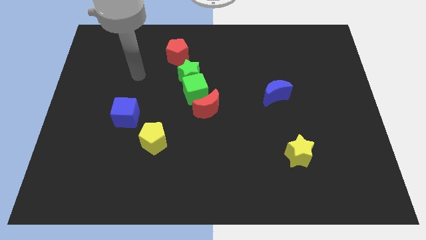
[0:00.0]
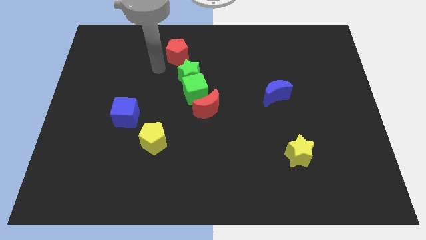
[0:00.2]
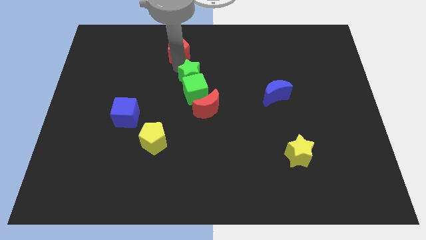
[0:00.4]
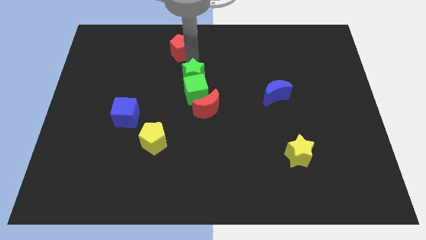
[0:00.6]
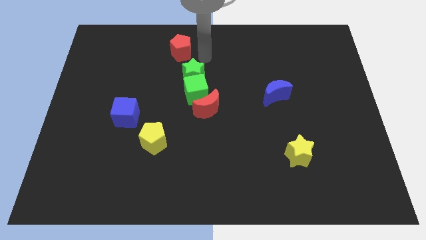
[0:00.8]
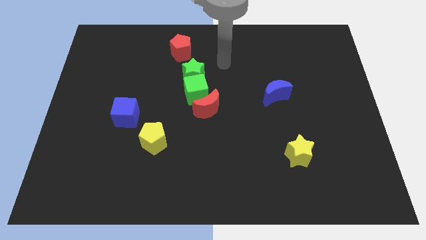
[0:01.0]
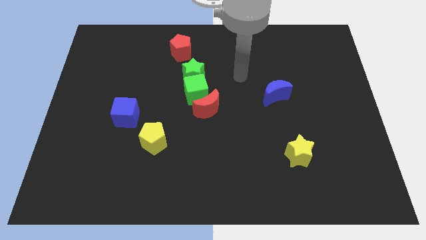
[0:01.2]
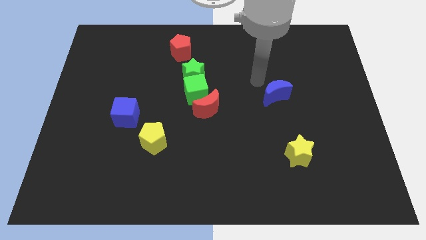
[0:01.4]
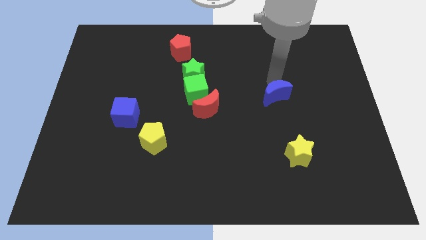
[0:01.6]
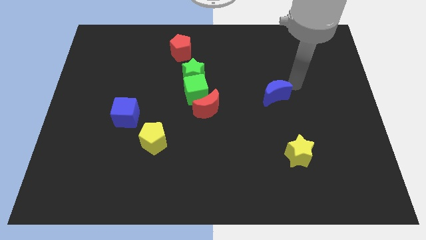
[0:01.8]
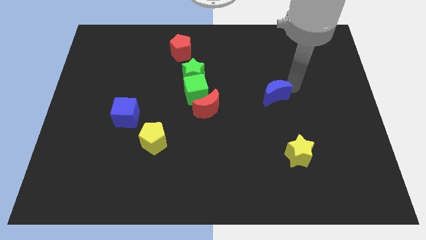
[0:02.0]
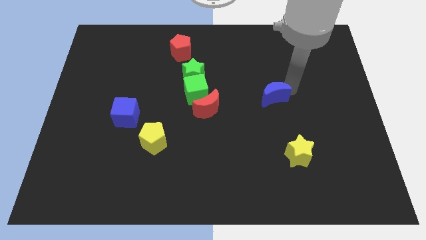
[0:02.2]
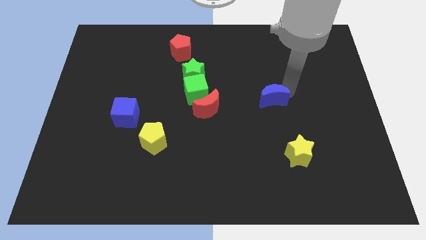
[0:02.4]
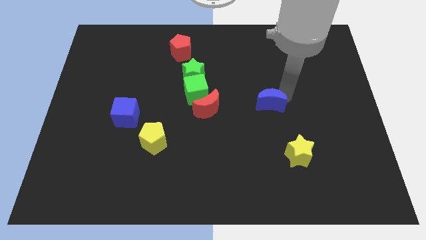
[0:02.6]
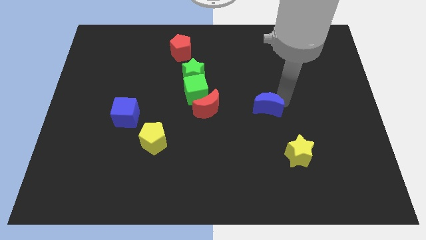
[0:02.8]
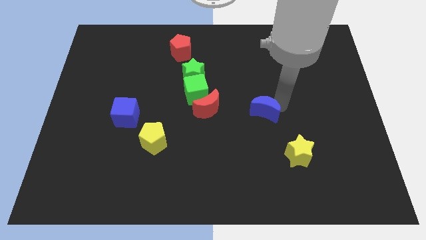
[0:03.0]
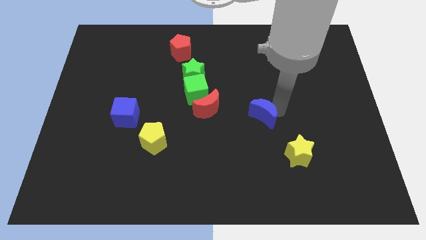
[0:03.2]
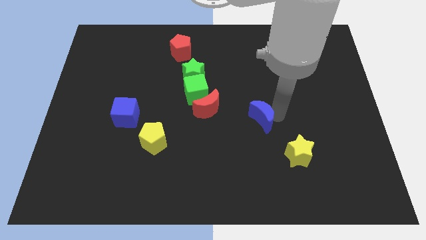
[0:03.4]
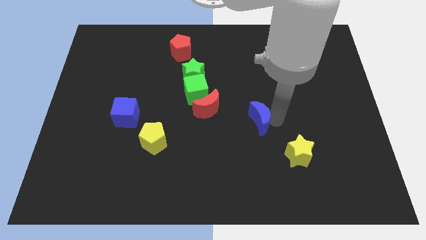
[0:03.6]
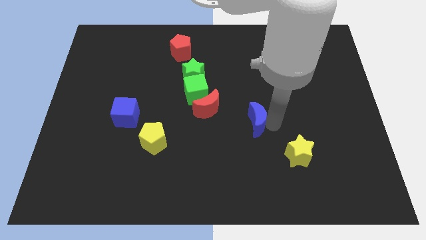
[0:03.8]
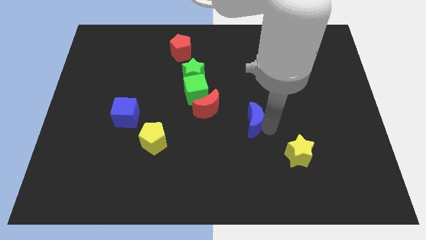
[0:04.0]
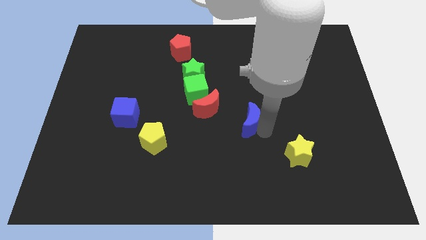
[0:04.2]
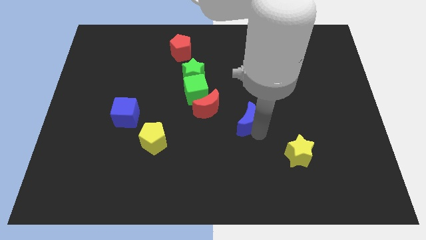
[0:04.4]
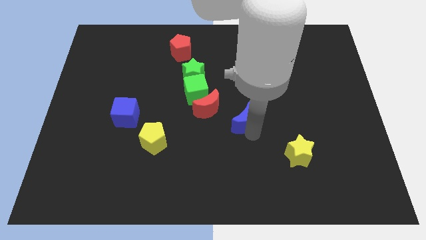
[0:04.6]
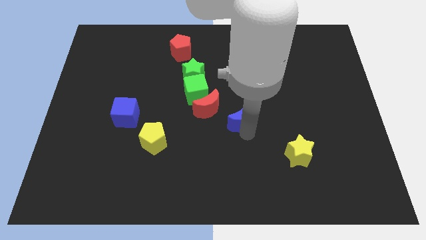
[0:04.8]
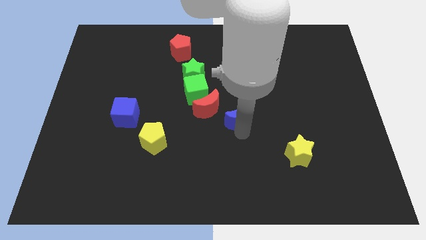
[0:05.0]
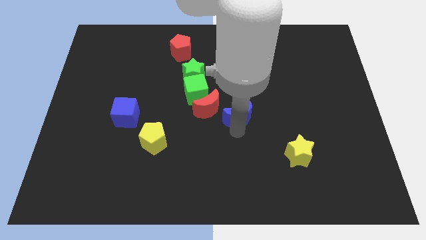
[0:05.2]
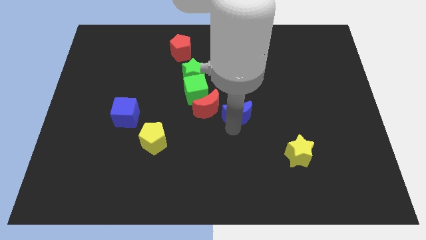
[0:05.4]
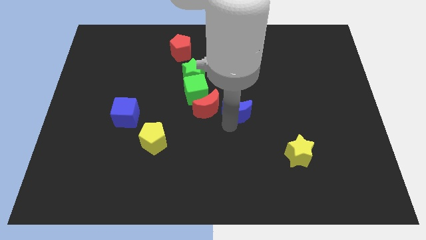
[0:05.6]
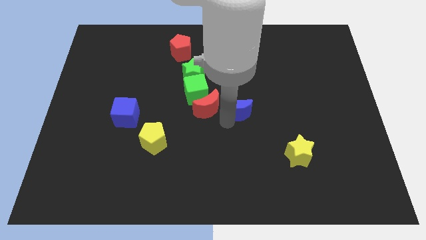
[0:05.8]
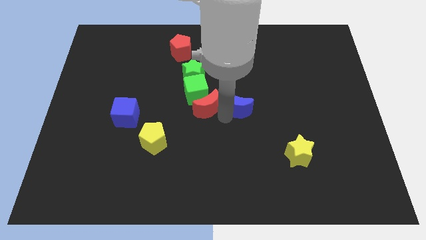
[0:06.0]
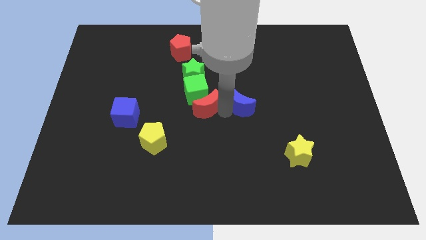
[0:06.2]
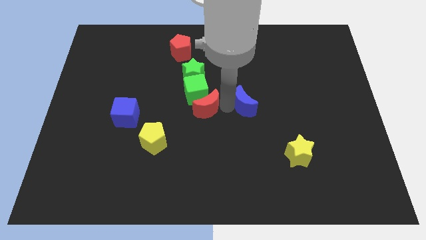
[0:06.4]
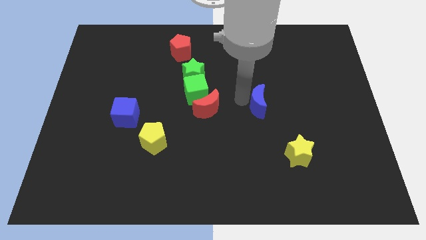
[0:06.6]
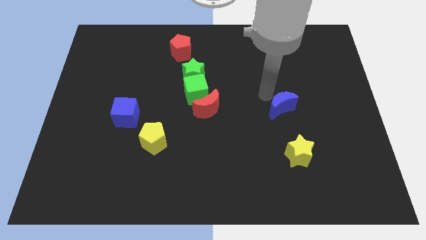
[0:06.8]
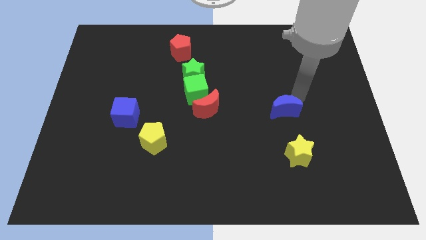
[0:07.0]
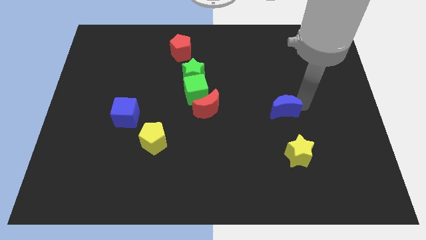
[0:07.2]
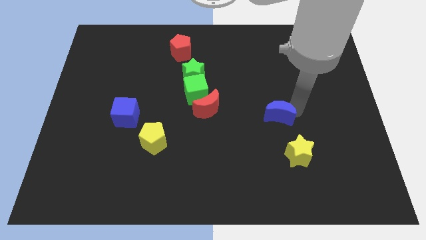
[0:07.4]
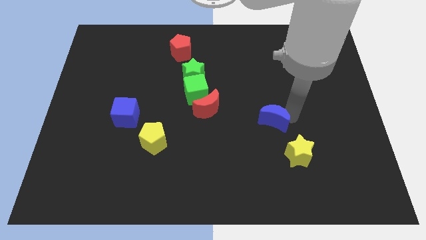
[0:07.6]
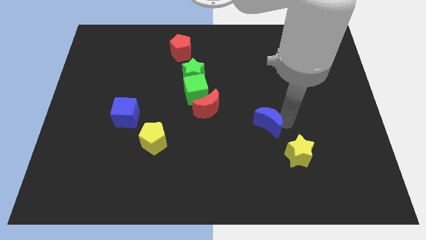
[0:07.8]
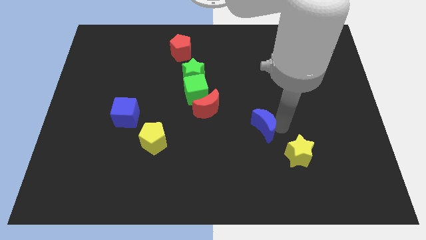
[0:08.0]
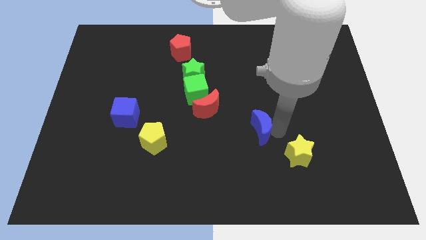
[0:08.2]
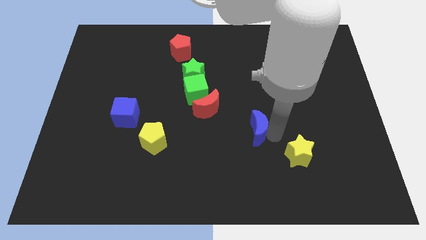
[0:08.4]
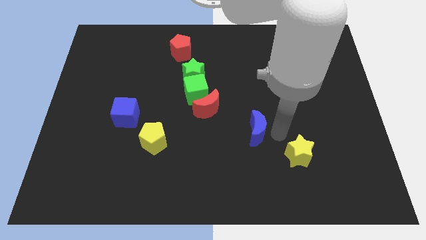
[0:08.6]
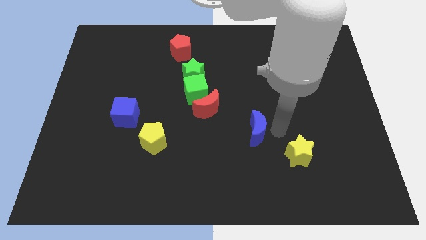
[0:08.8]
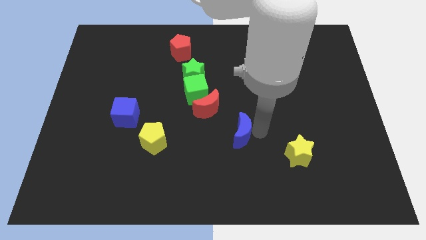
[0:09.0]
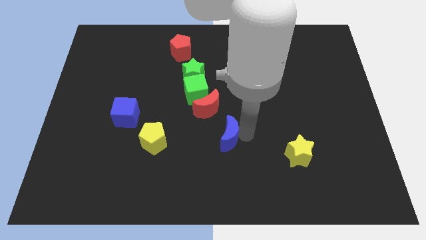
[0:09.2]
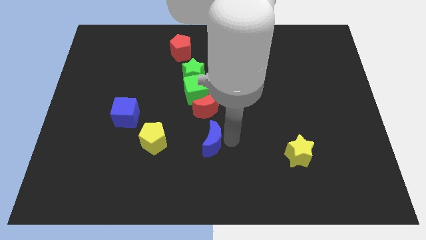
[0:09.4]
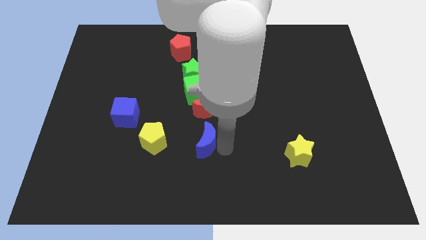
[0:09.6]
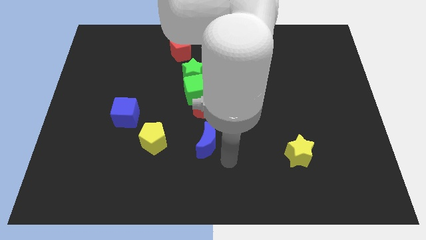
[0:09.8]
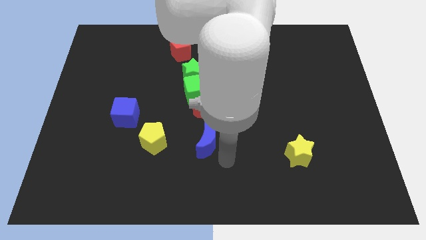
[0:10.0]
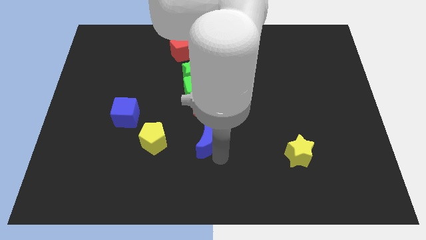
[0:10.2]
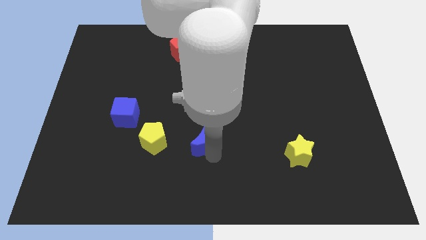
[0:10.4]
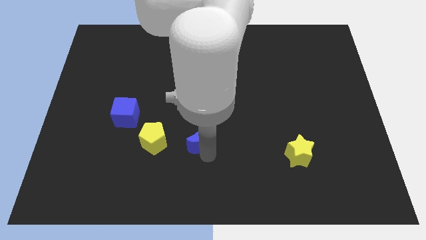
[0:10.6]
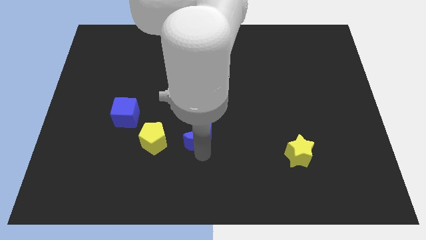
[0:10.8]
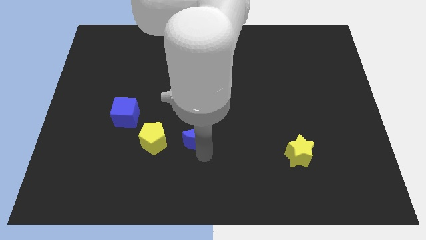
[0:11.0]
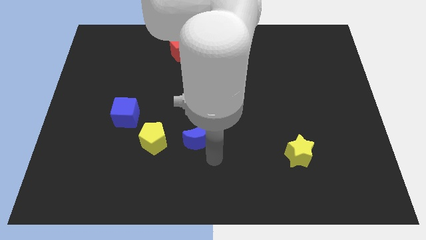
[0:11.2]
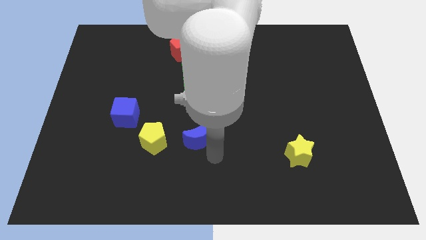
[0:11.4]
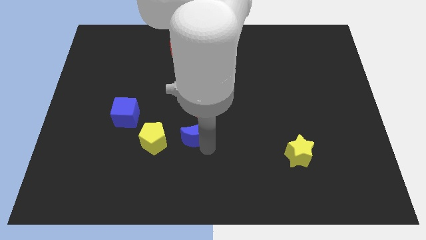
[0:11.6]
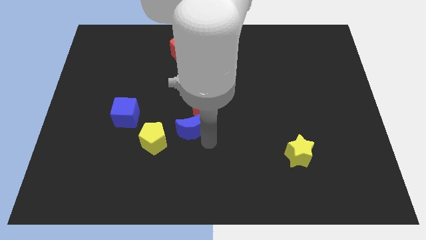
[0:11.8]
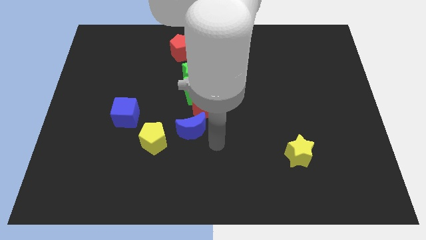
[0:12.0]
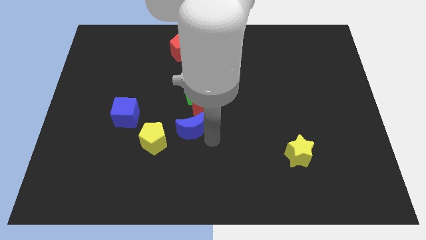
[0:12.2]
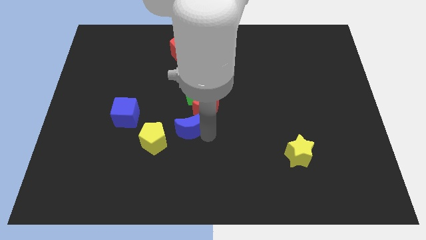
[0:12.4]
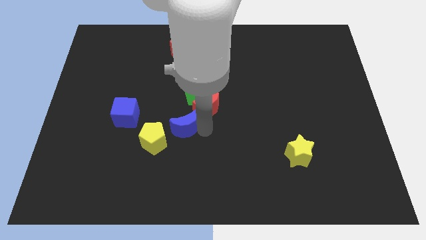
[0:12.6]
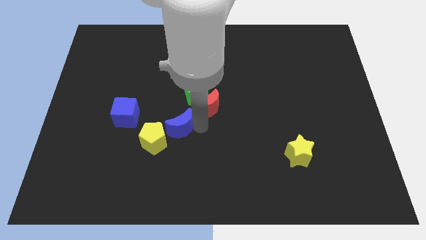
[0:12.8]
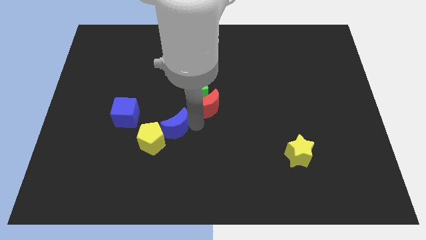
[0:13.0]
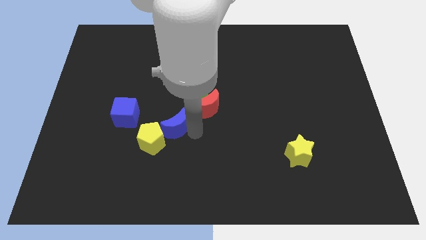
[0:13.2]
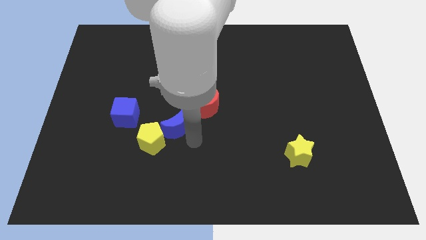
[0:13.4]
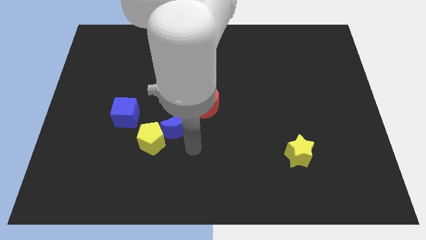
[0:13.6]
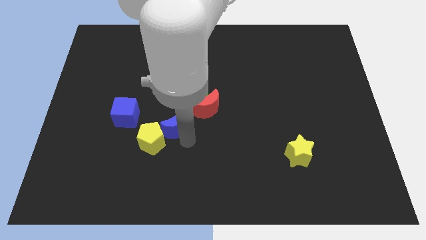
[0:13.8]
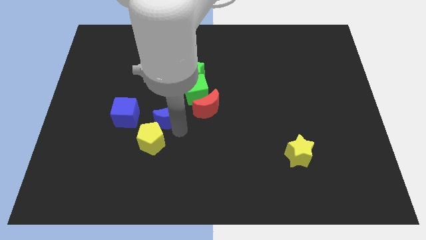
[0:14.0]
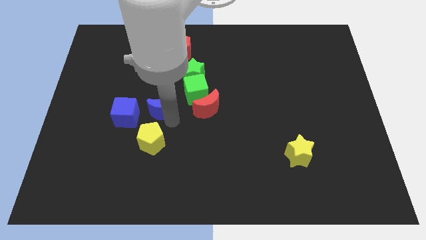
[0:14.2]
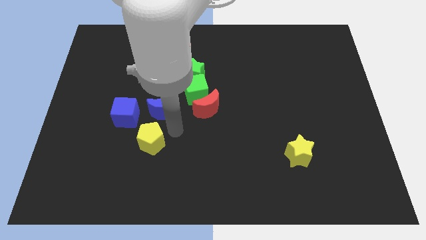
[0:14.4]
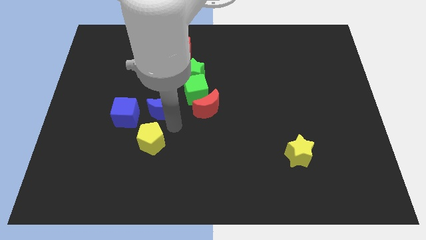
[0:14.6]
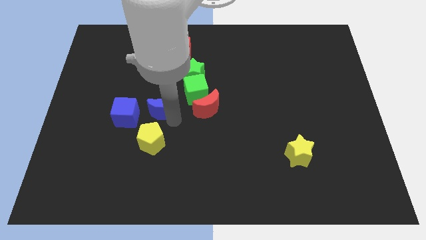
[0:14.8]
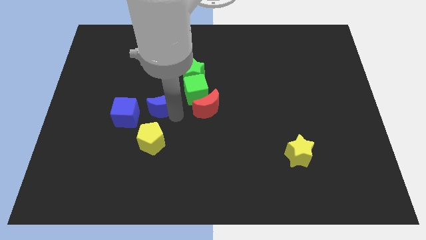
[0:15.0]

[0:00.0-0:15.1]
move the blue moon just left of the green cube
